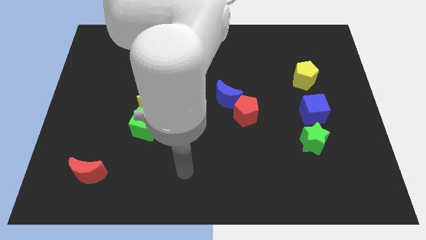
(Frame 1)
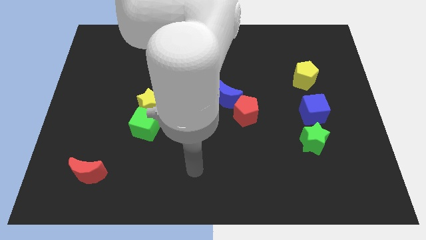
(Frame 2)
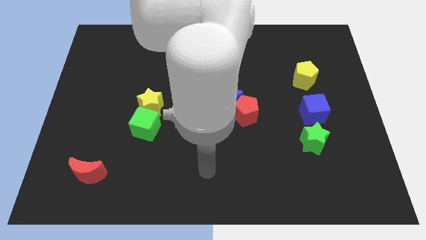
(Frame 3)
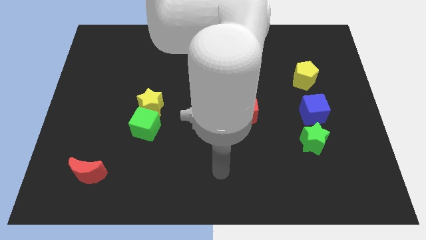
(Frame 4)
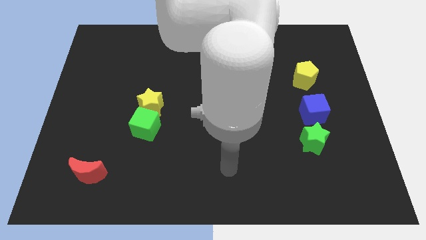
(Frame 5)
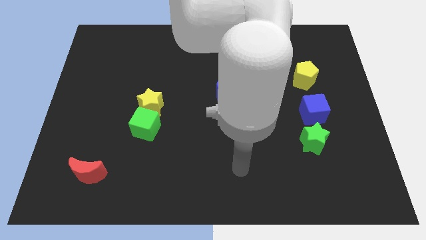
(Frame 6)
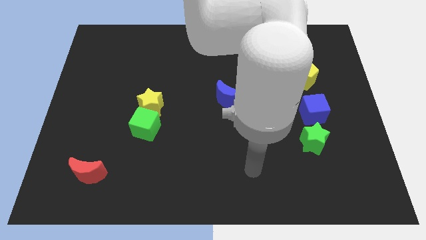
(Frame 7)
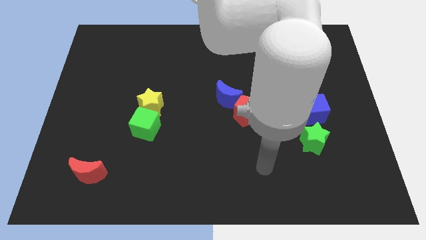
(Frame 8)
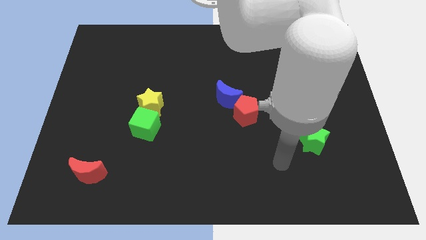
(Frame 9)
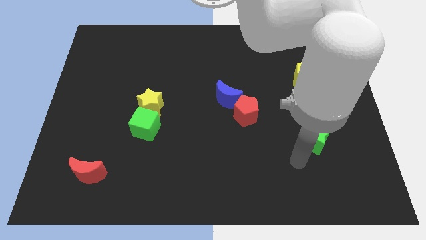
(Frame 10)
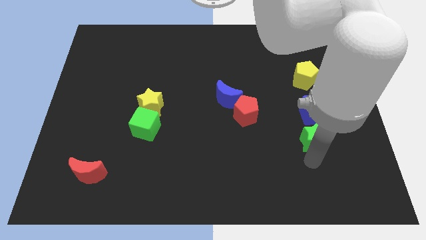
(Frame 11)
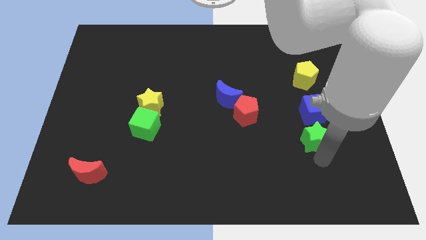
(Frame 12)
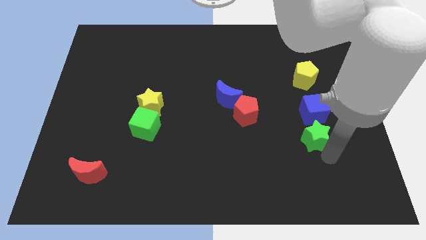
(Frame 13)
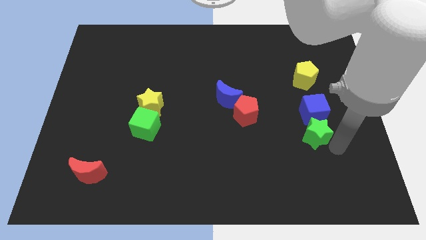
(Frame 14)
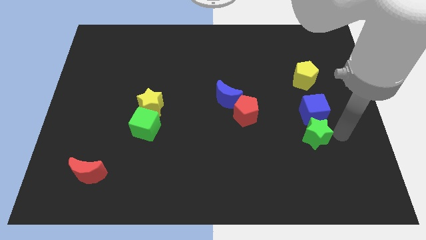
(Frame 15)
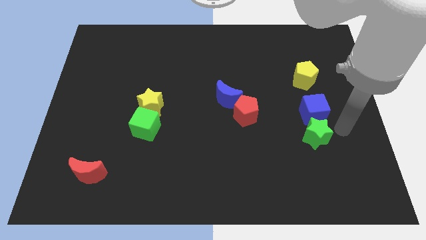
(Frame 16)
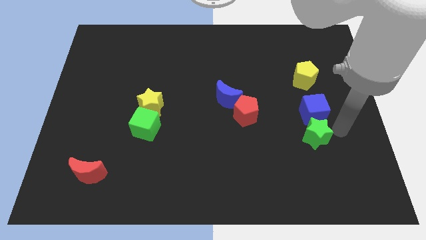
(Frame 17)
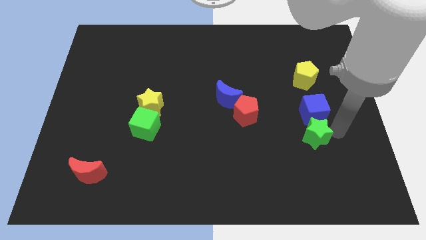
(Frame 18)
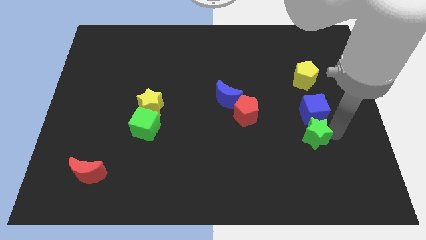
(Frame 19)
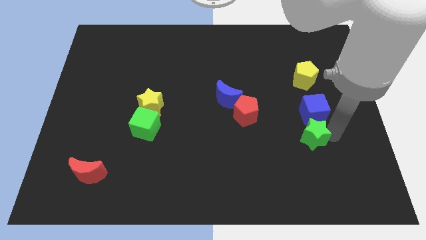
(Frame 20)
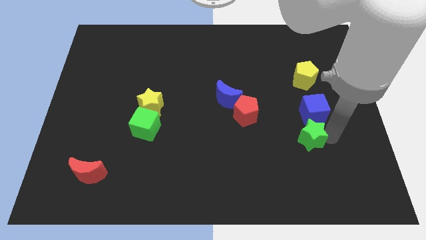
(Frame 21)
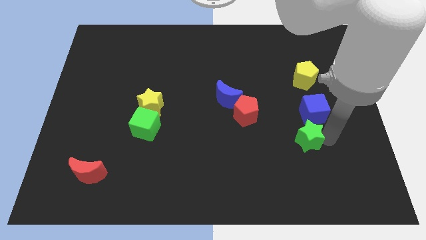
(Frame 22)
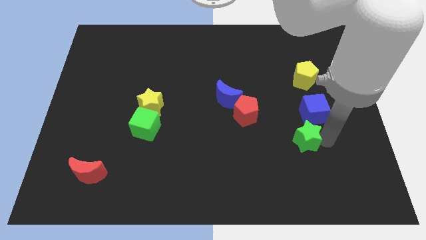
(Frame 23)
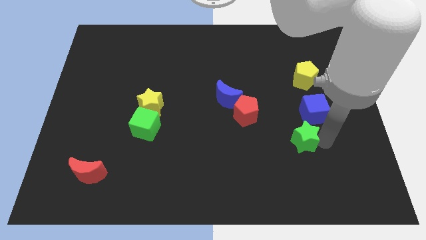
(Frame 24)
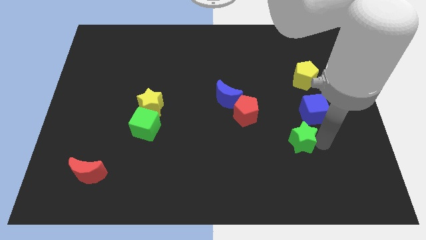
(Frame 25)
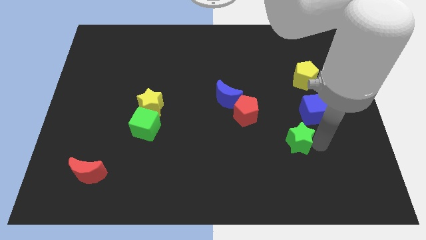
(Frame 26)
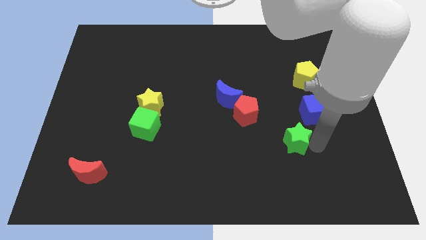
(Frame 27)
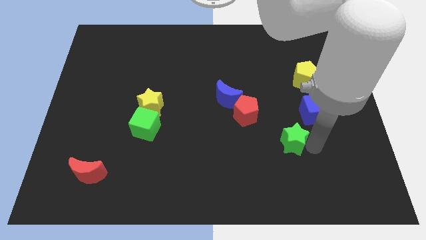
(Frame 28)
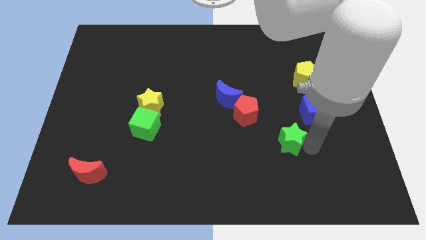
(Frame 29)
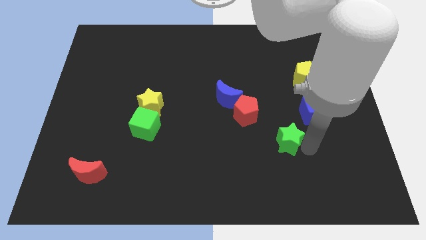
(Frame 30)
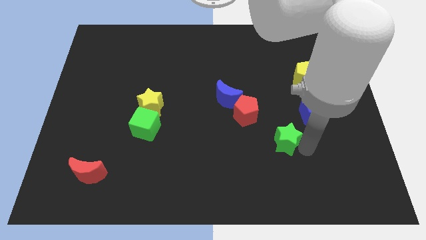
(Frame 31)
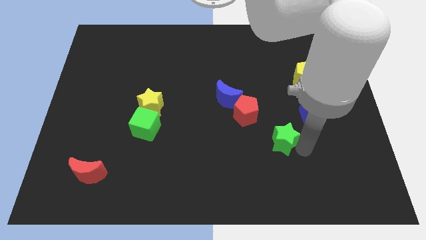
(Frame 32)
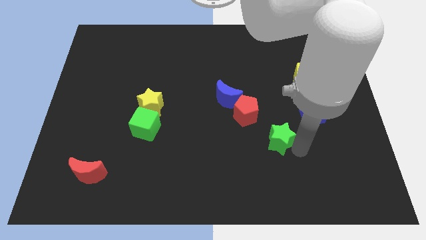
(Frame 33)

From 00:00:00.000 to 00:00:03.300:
move the green star somewhat left

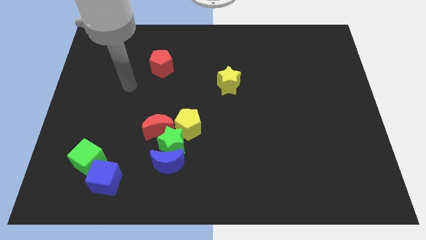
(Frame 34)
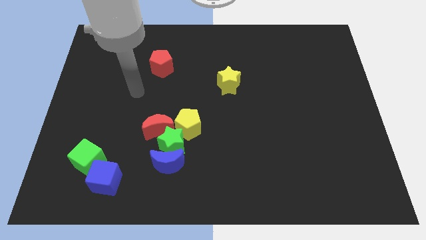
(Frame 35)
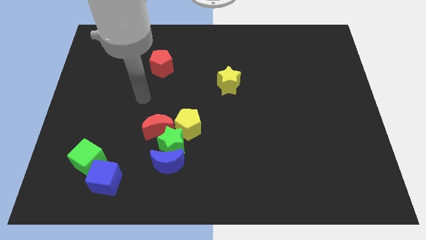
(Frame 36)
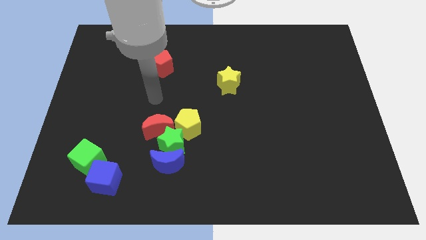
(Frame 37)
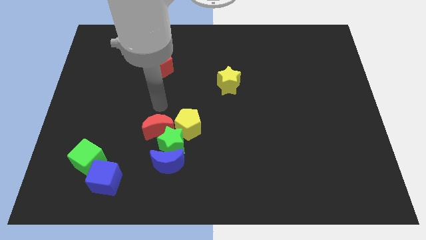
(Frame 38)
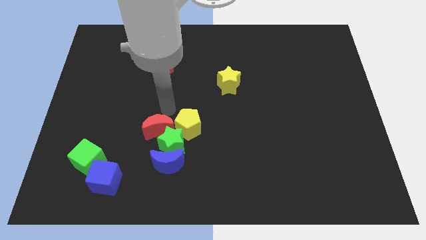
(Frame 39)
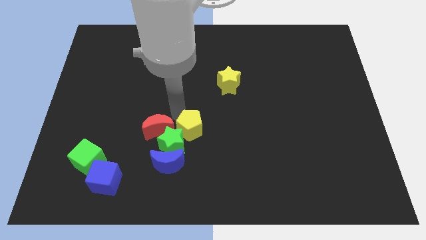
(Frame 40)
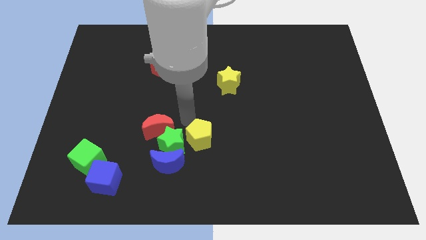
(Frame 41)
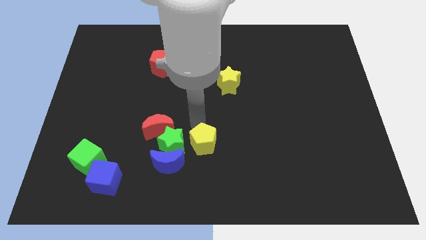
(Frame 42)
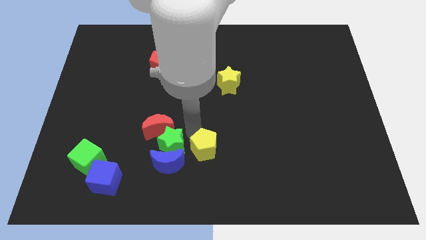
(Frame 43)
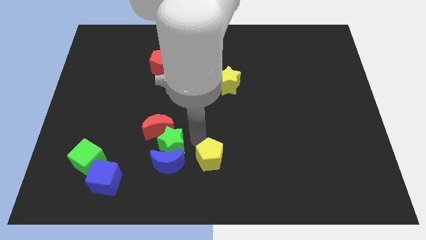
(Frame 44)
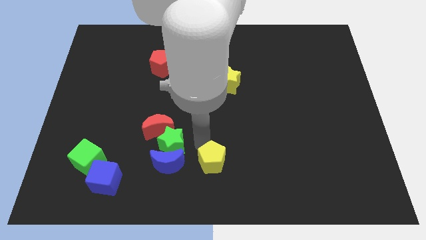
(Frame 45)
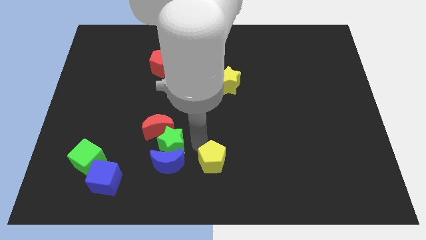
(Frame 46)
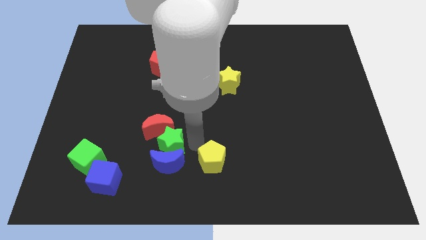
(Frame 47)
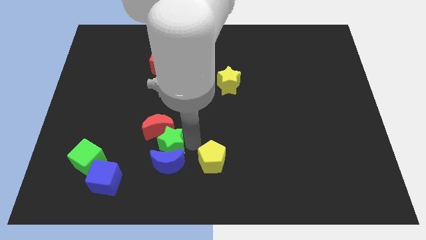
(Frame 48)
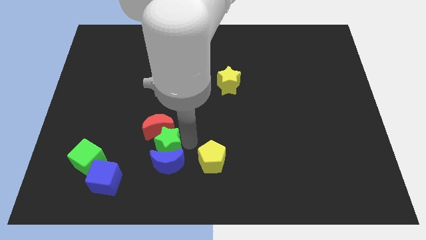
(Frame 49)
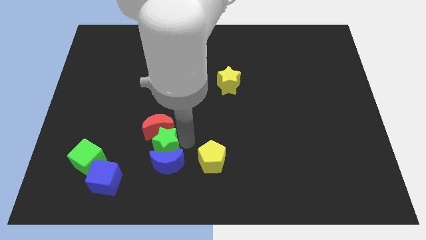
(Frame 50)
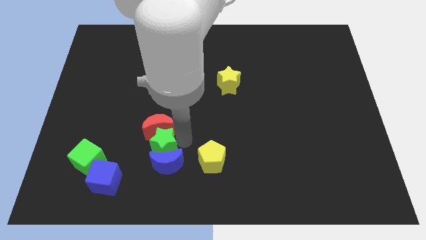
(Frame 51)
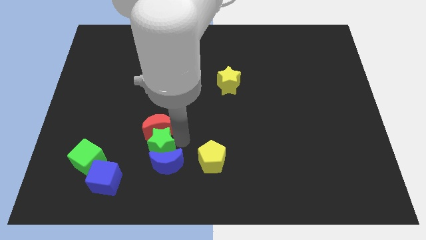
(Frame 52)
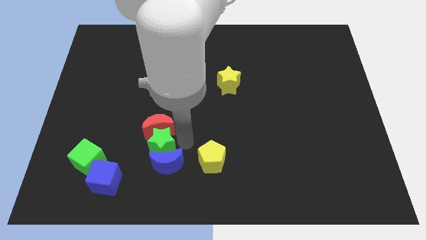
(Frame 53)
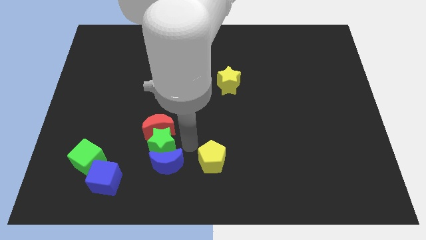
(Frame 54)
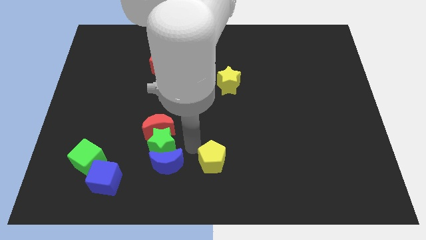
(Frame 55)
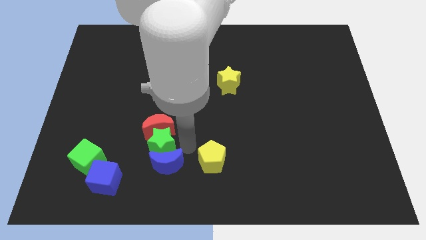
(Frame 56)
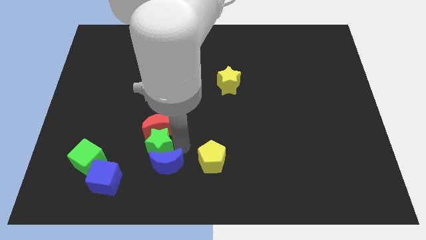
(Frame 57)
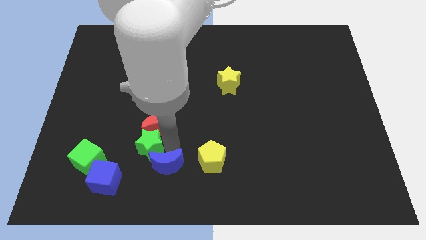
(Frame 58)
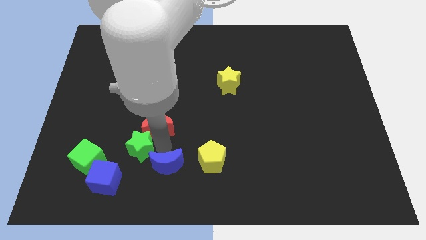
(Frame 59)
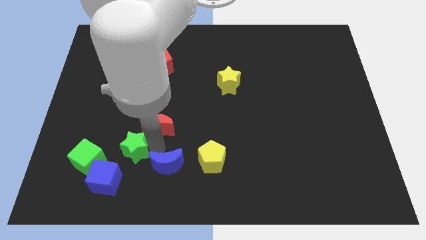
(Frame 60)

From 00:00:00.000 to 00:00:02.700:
push the green star a bit left

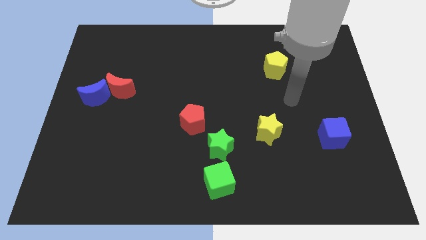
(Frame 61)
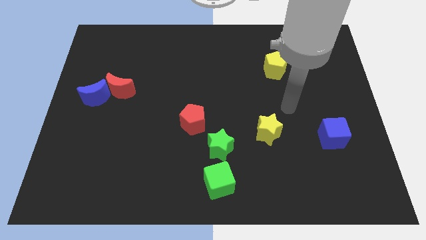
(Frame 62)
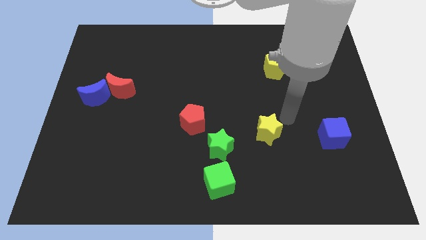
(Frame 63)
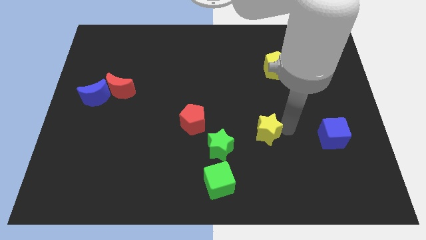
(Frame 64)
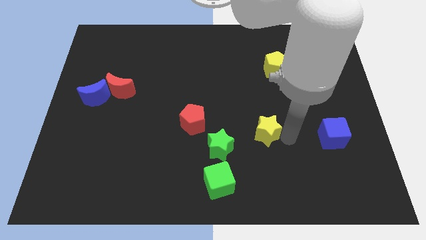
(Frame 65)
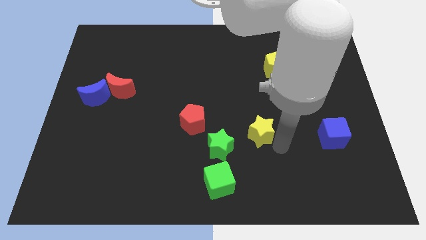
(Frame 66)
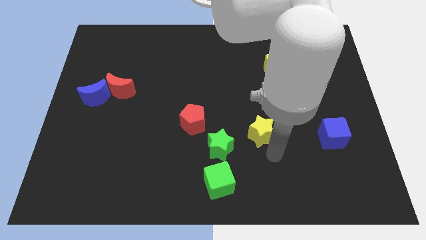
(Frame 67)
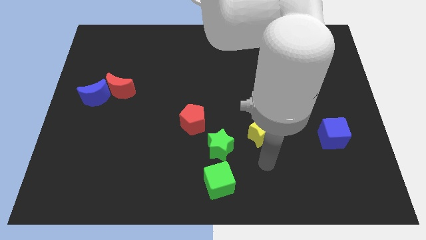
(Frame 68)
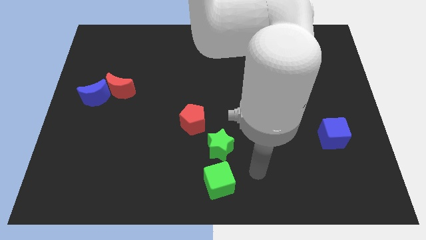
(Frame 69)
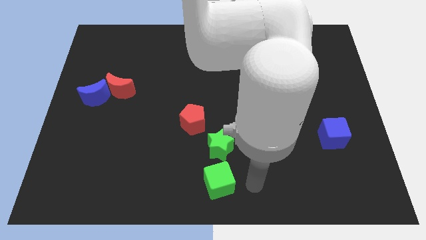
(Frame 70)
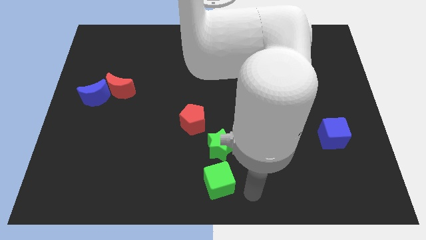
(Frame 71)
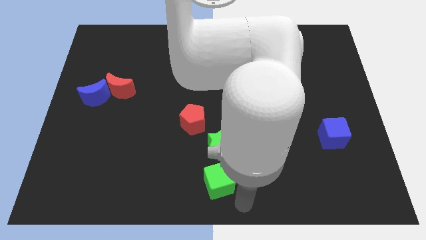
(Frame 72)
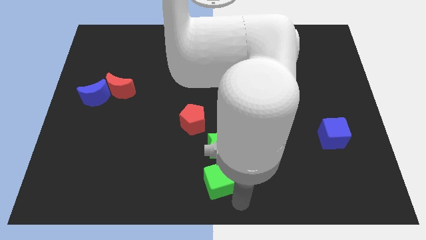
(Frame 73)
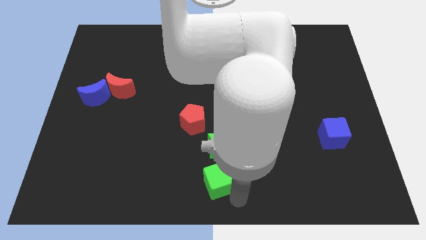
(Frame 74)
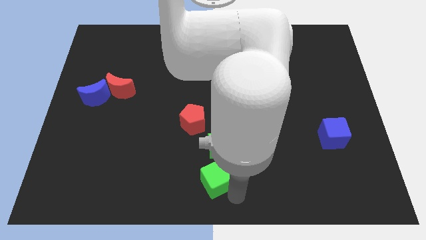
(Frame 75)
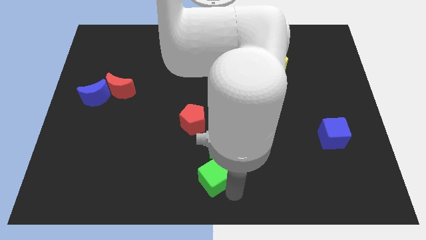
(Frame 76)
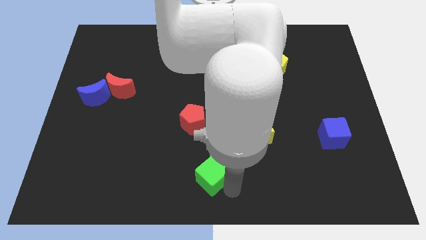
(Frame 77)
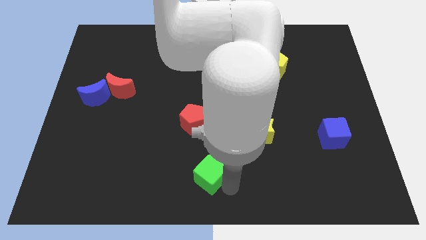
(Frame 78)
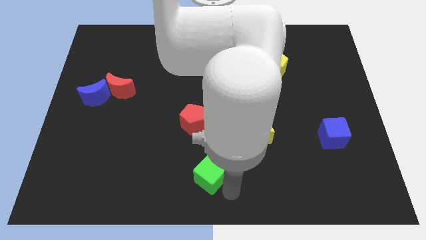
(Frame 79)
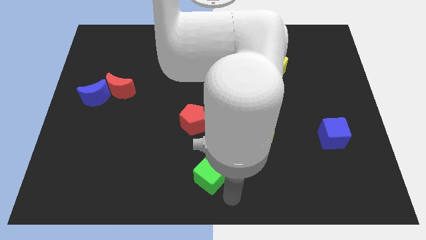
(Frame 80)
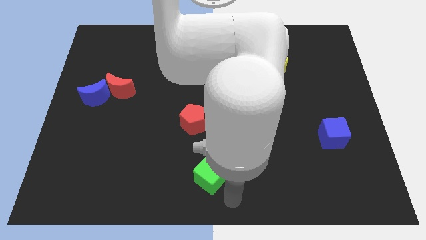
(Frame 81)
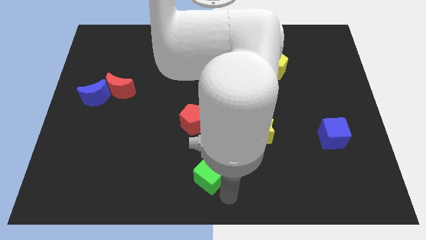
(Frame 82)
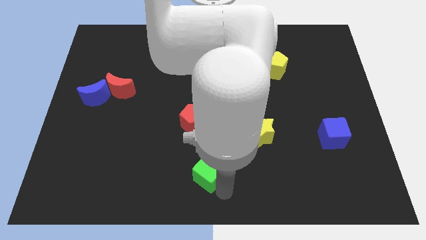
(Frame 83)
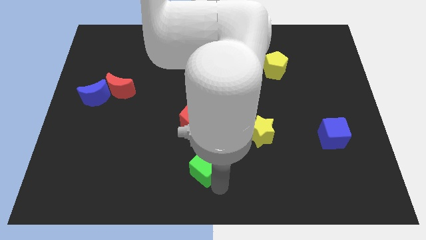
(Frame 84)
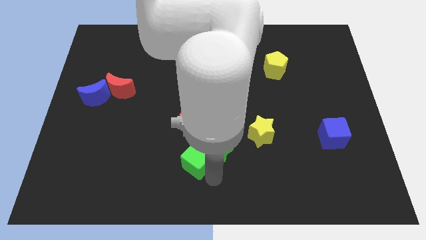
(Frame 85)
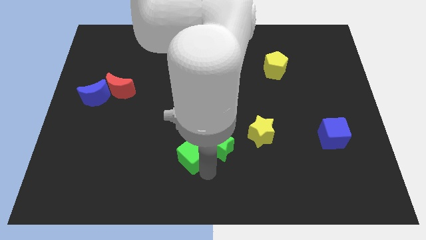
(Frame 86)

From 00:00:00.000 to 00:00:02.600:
slightly push the green cube upwards and then left
